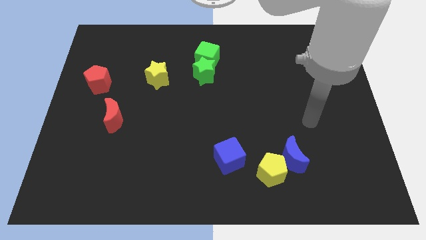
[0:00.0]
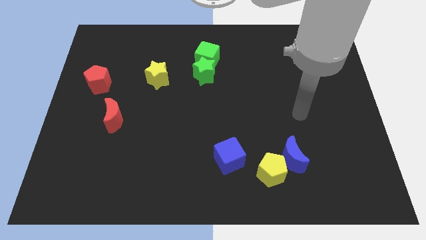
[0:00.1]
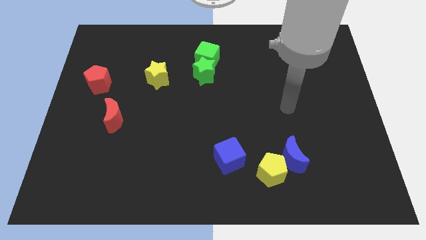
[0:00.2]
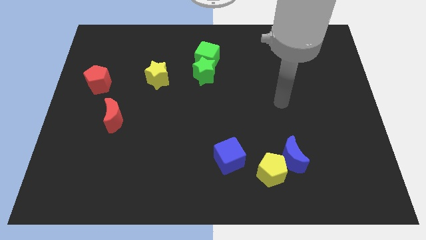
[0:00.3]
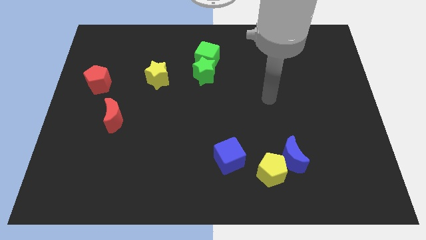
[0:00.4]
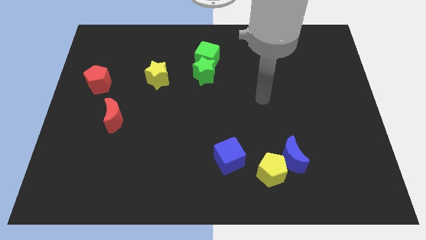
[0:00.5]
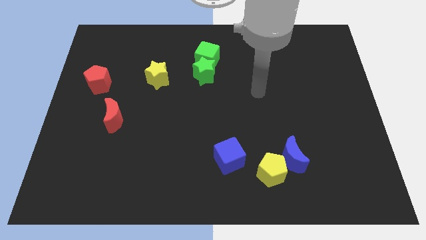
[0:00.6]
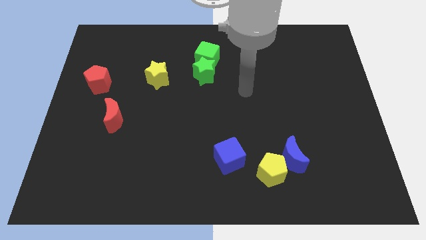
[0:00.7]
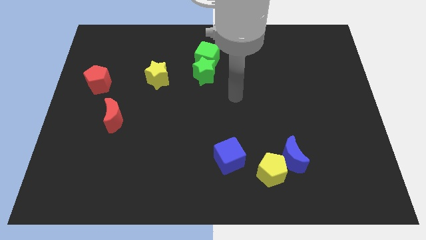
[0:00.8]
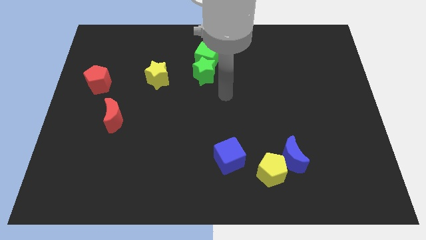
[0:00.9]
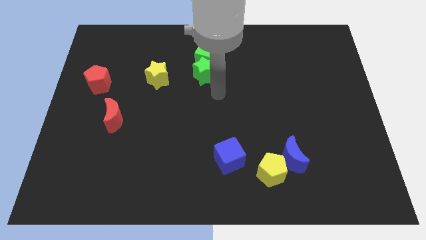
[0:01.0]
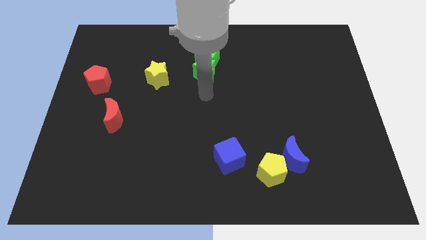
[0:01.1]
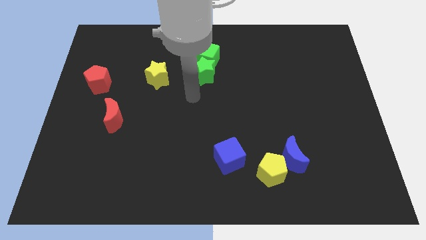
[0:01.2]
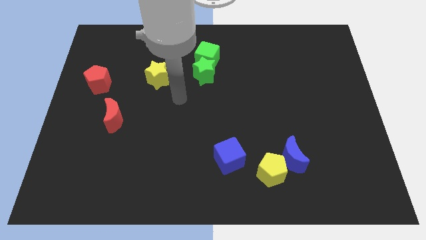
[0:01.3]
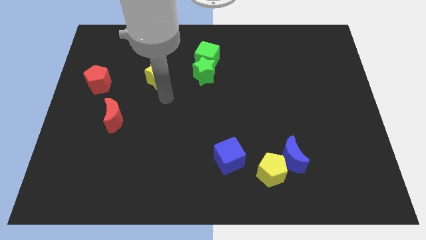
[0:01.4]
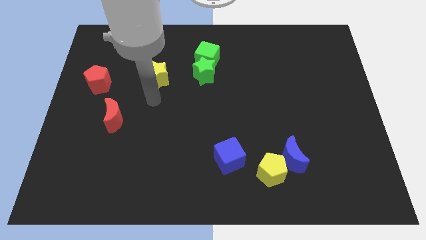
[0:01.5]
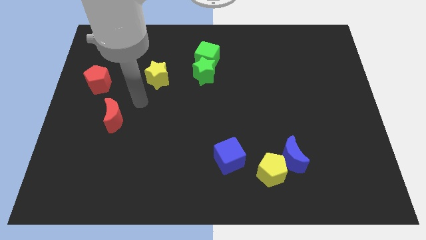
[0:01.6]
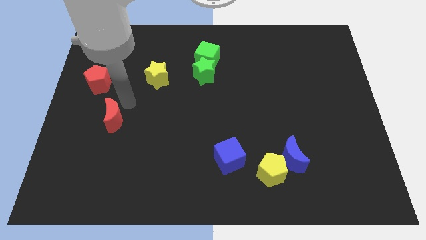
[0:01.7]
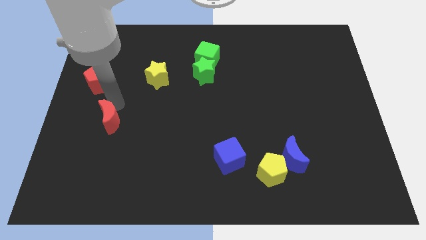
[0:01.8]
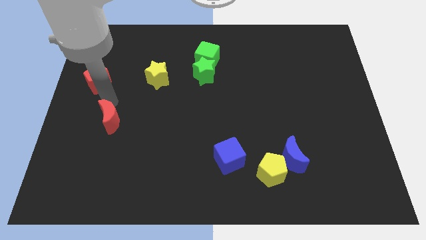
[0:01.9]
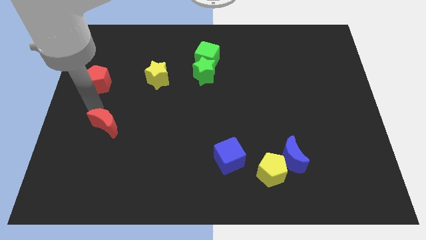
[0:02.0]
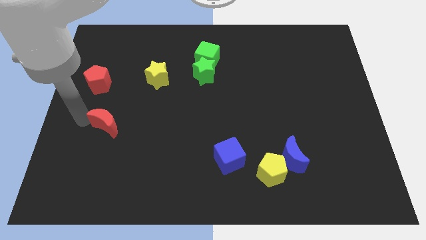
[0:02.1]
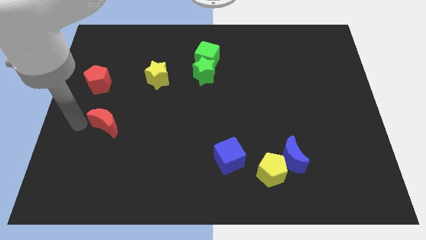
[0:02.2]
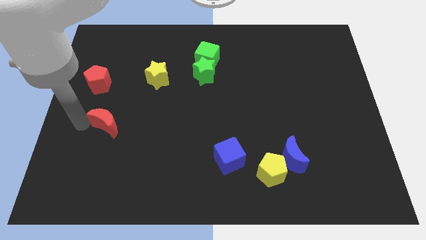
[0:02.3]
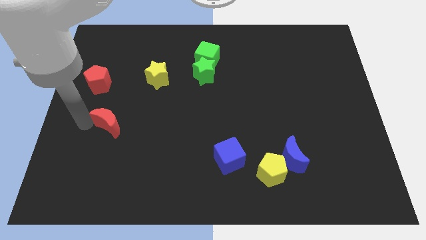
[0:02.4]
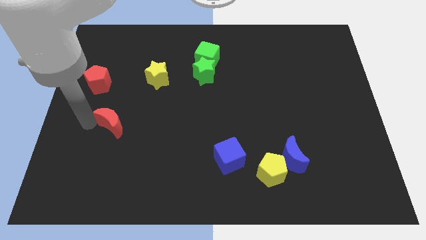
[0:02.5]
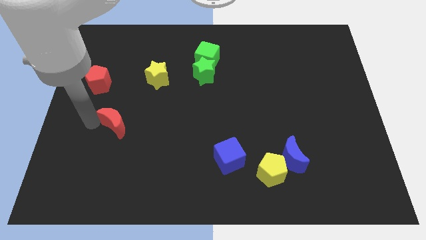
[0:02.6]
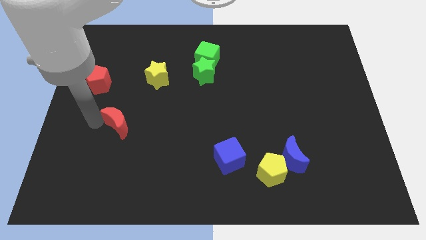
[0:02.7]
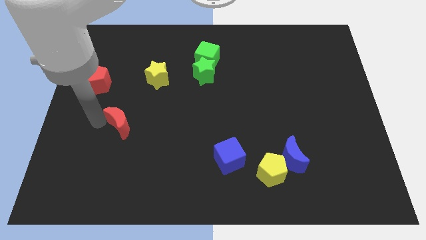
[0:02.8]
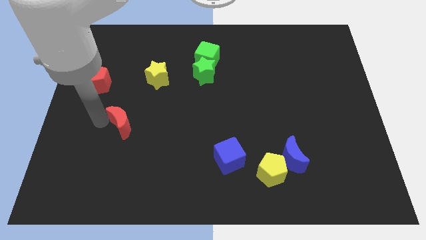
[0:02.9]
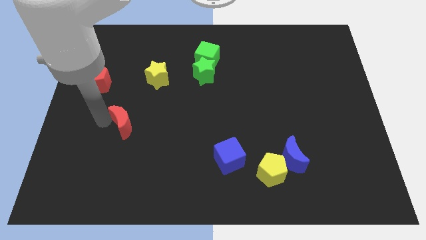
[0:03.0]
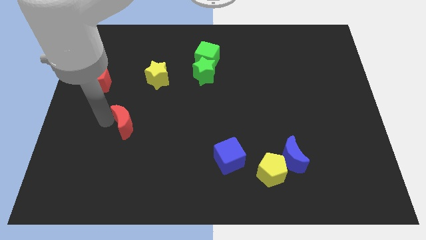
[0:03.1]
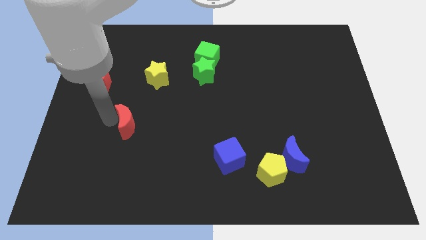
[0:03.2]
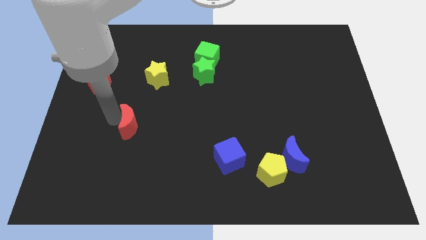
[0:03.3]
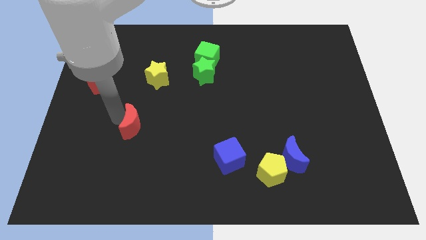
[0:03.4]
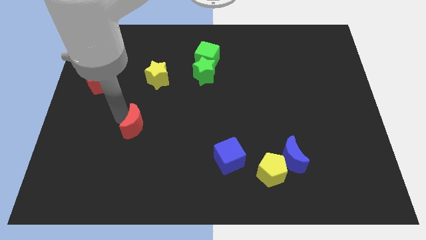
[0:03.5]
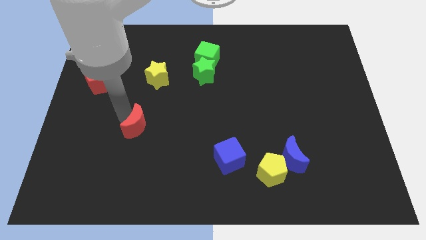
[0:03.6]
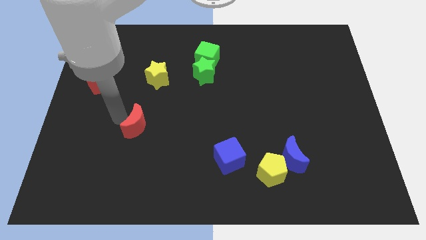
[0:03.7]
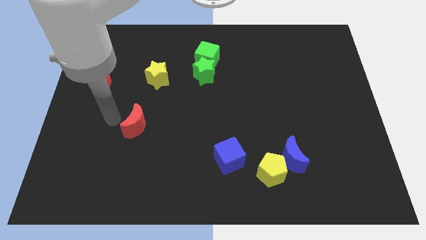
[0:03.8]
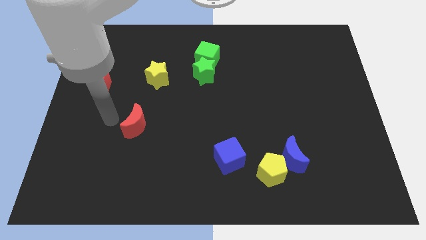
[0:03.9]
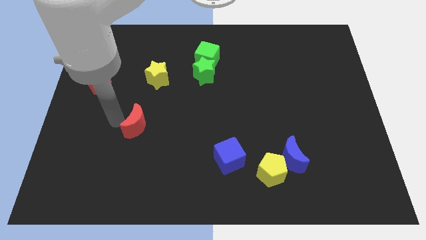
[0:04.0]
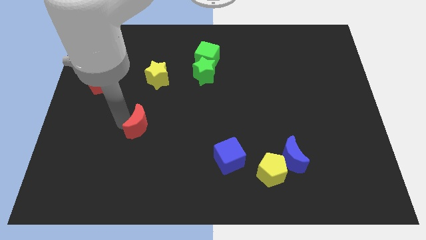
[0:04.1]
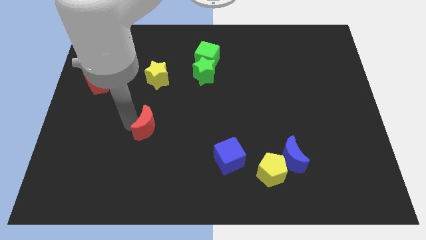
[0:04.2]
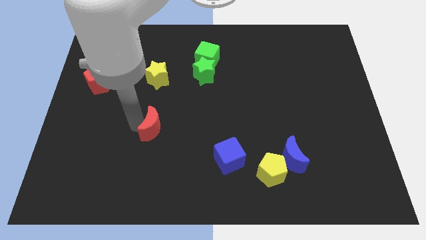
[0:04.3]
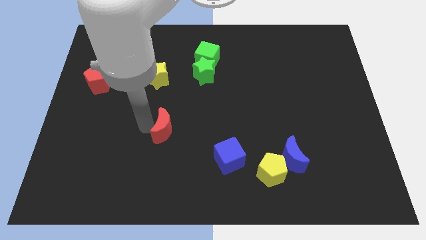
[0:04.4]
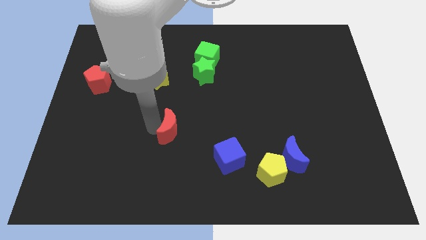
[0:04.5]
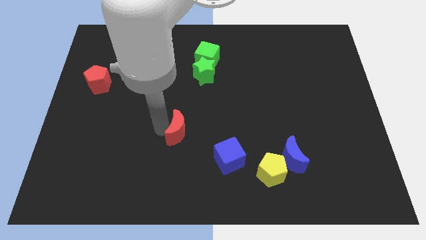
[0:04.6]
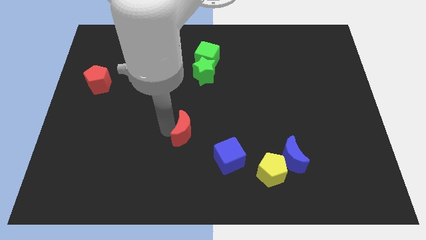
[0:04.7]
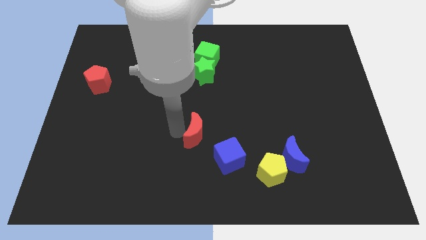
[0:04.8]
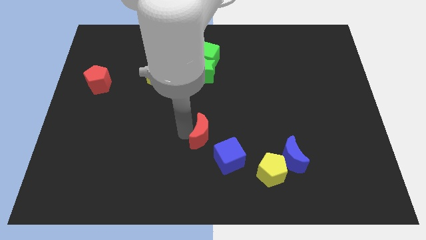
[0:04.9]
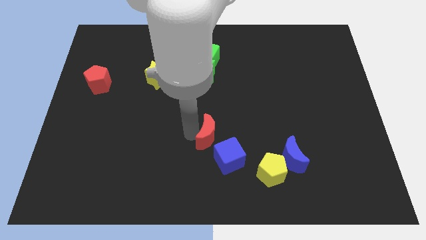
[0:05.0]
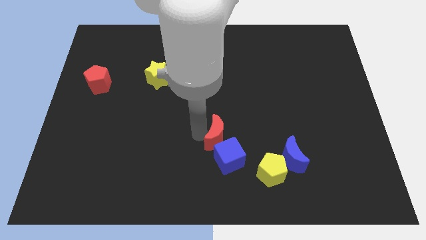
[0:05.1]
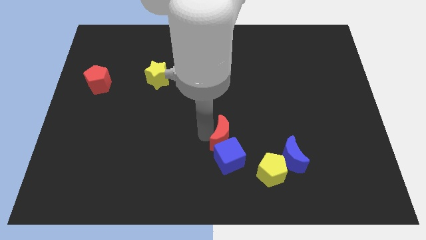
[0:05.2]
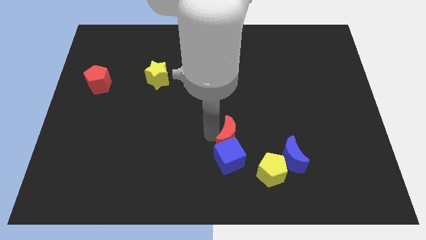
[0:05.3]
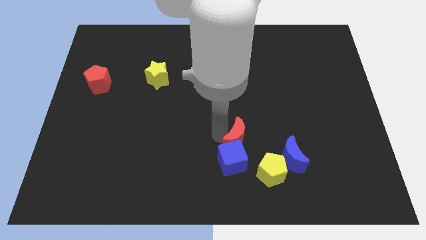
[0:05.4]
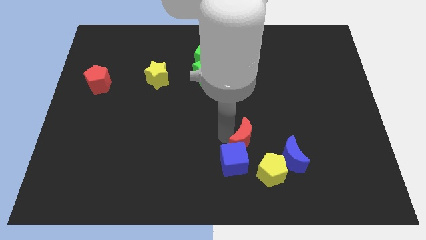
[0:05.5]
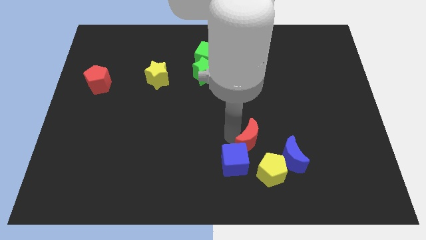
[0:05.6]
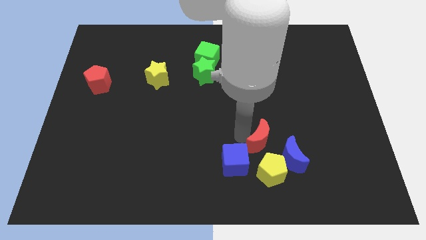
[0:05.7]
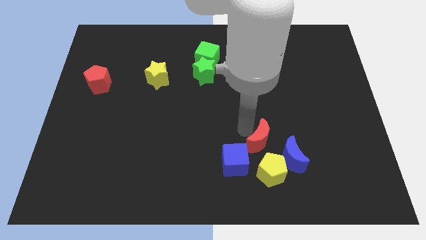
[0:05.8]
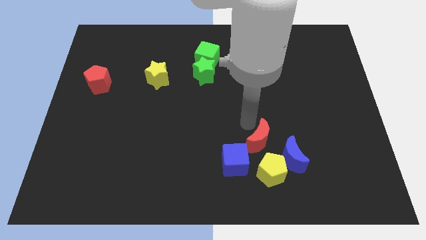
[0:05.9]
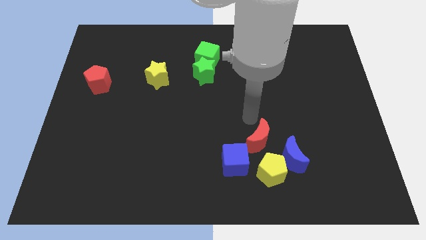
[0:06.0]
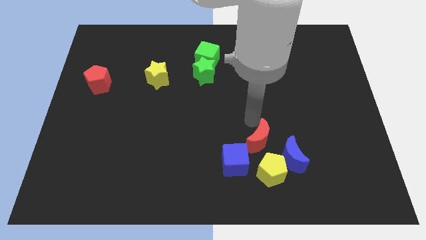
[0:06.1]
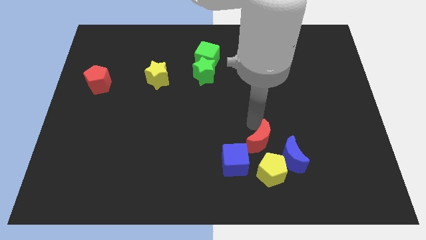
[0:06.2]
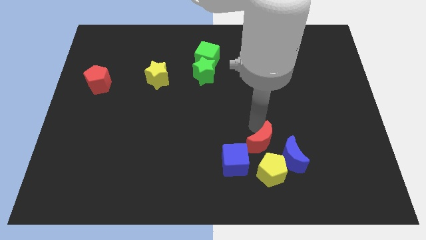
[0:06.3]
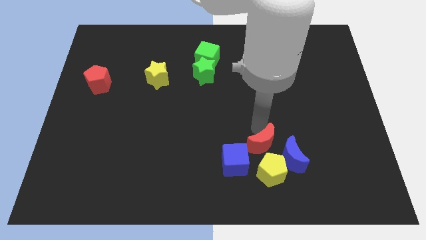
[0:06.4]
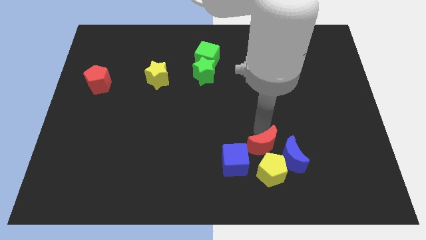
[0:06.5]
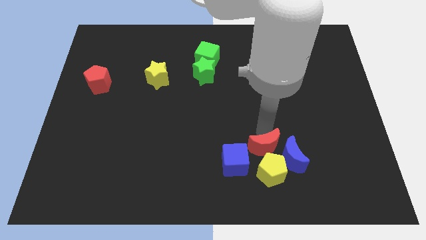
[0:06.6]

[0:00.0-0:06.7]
slide the red moon next to the yellow pentagon
